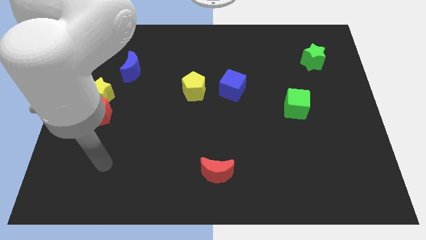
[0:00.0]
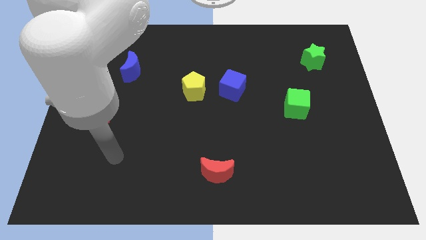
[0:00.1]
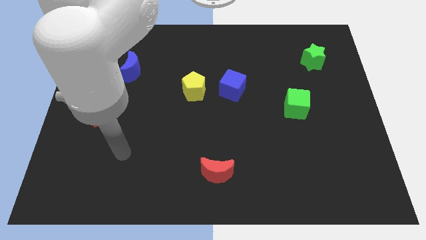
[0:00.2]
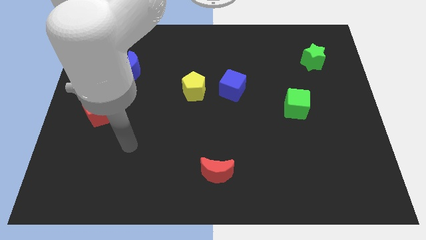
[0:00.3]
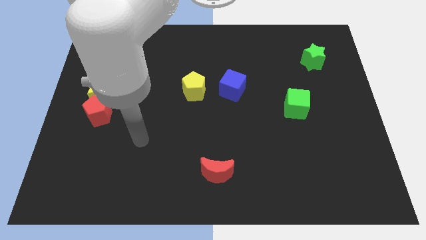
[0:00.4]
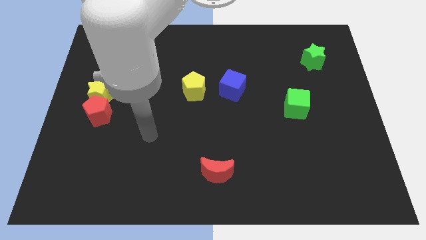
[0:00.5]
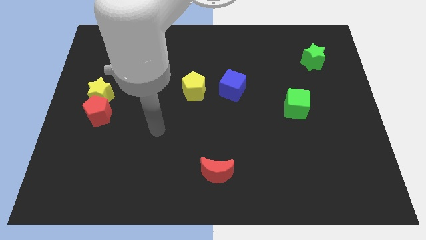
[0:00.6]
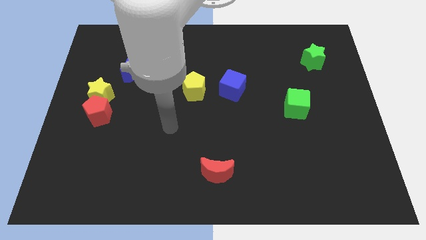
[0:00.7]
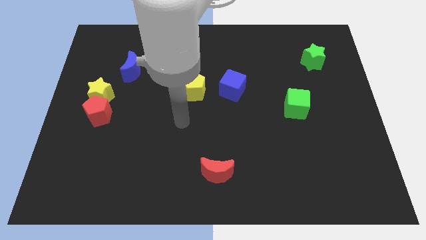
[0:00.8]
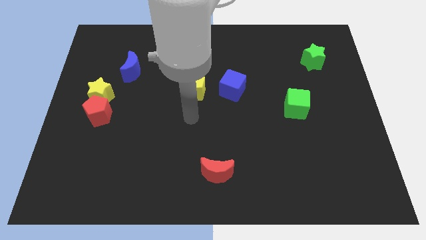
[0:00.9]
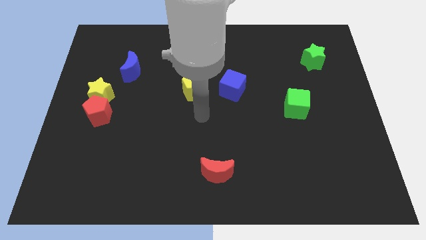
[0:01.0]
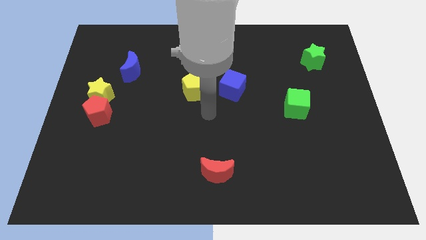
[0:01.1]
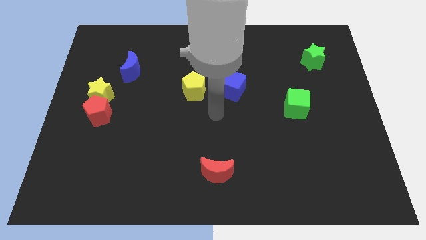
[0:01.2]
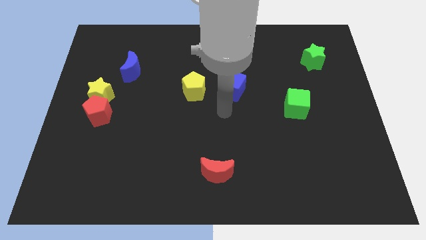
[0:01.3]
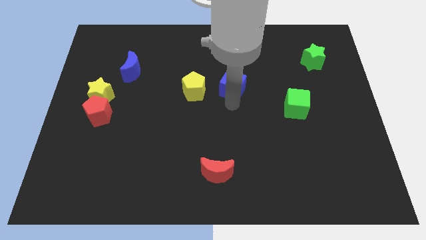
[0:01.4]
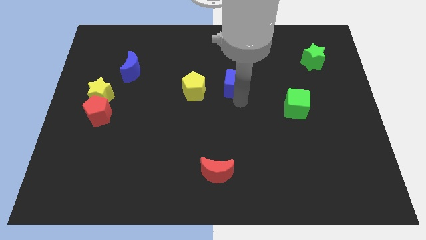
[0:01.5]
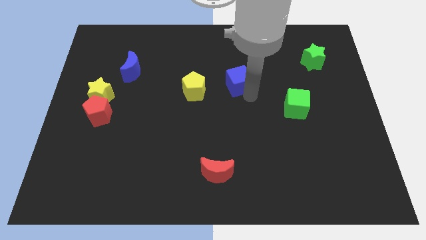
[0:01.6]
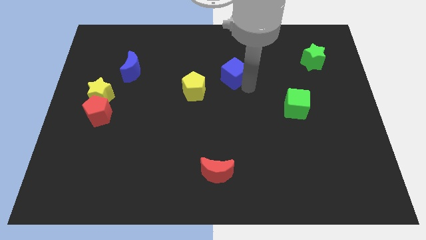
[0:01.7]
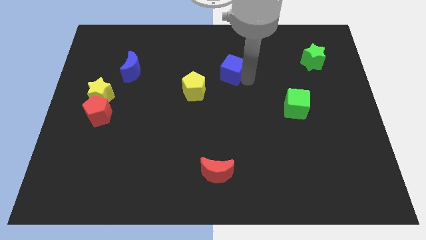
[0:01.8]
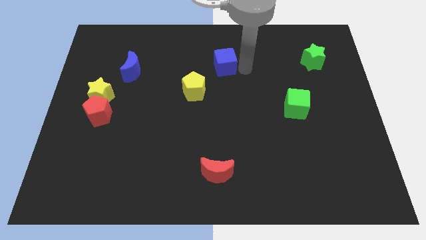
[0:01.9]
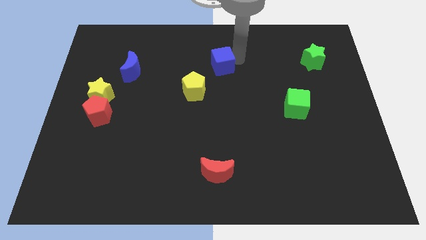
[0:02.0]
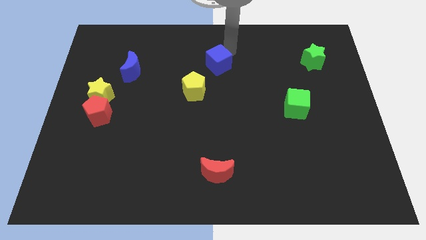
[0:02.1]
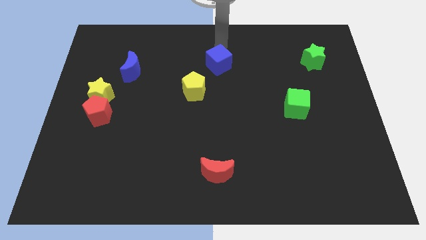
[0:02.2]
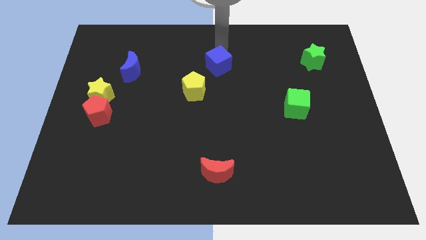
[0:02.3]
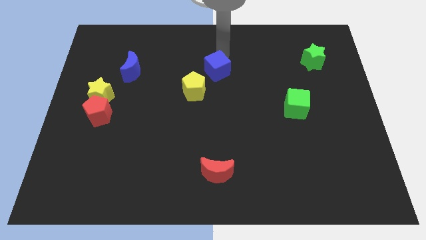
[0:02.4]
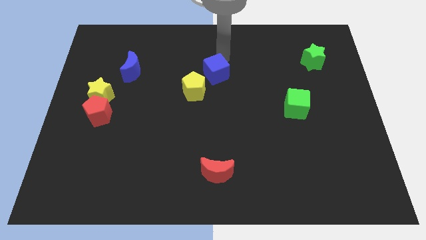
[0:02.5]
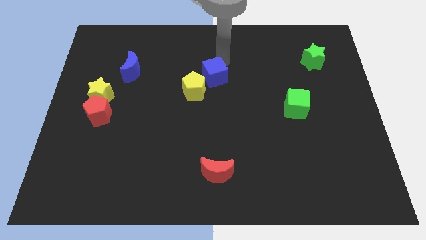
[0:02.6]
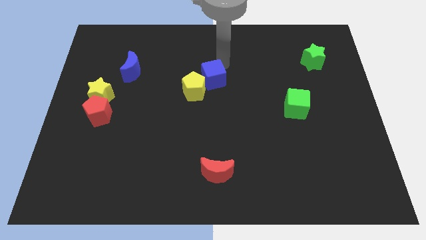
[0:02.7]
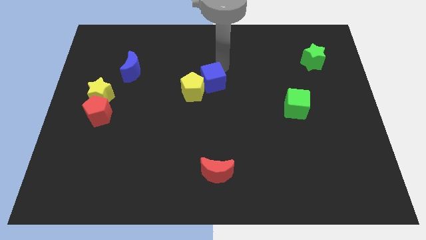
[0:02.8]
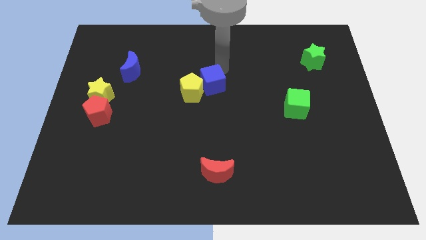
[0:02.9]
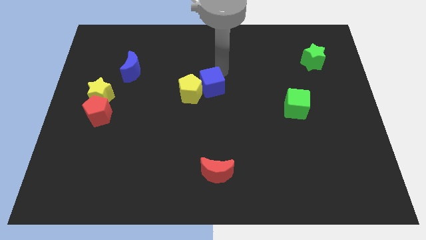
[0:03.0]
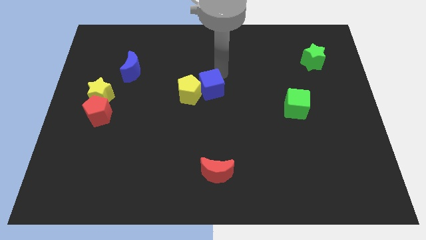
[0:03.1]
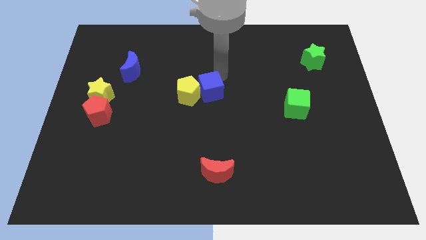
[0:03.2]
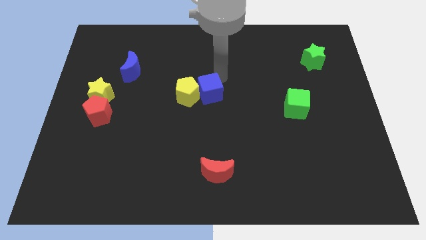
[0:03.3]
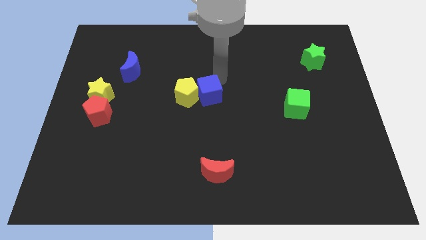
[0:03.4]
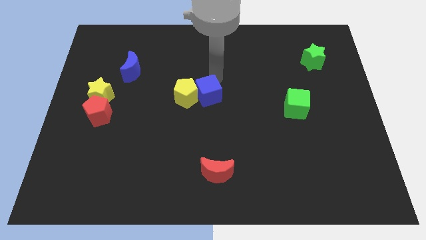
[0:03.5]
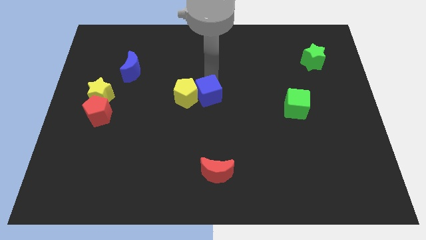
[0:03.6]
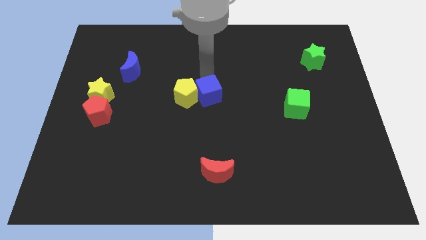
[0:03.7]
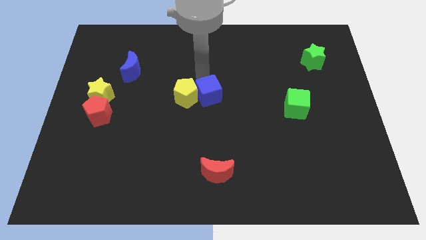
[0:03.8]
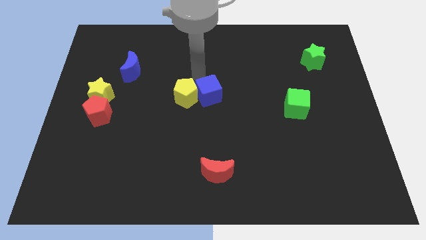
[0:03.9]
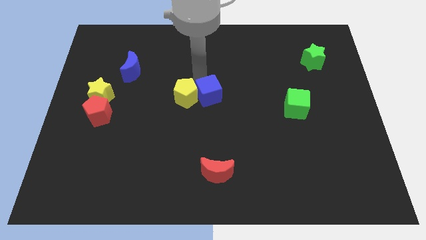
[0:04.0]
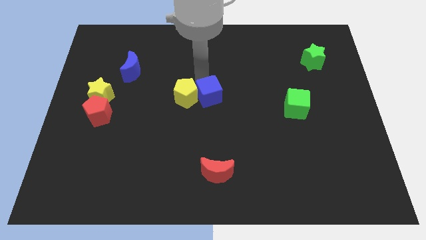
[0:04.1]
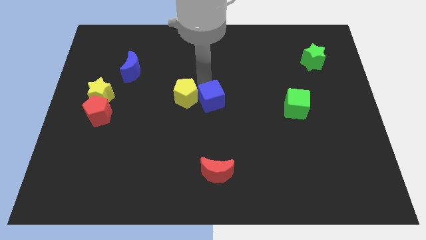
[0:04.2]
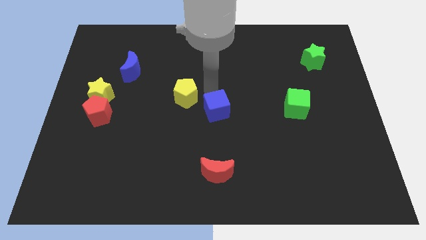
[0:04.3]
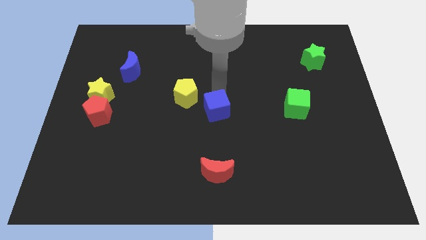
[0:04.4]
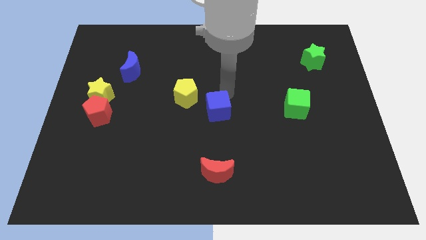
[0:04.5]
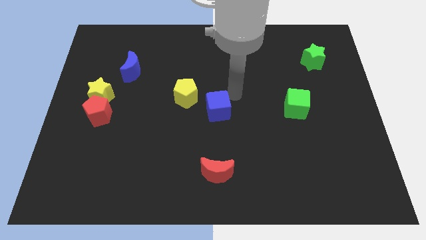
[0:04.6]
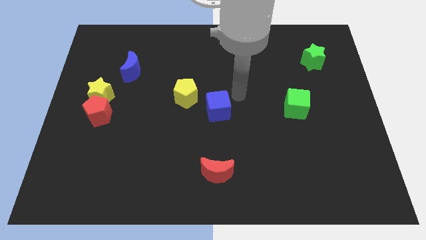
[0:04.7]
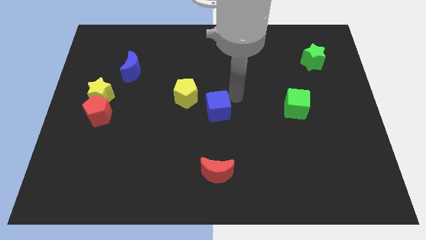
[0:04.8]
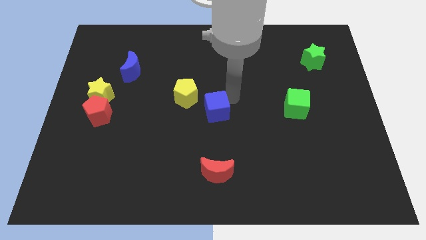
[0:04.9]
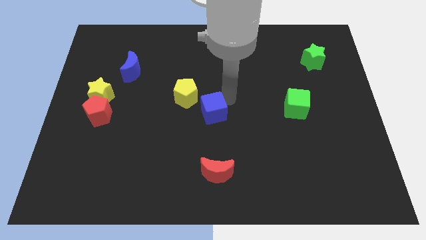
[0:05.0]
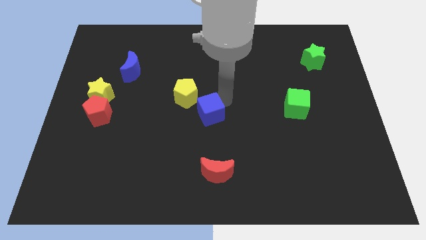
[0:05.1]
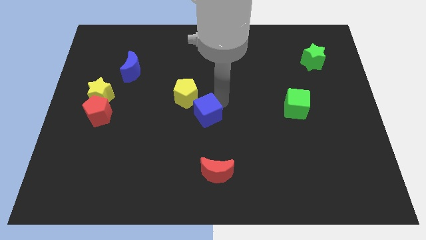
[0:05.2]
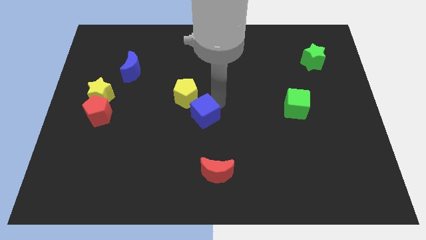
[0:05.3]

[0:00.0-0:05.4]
slide the blue cube below the yellow pentagon

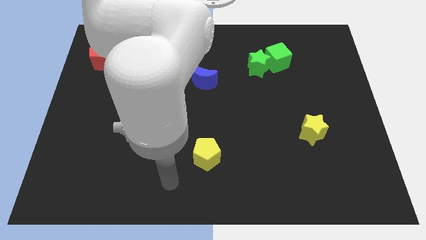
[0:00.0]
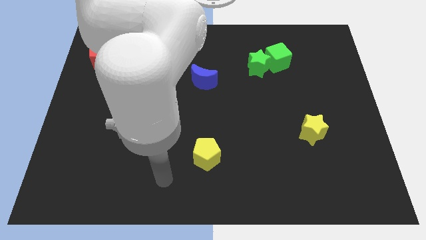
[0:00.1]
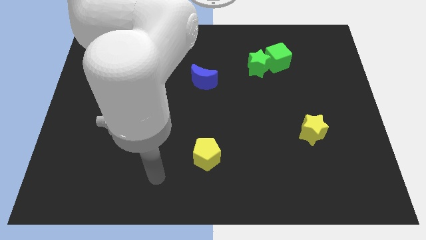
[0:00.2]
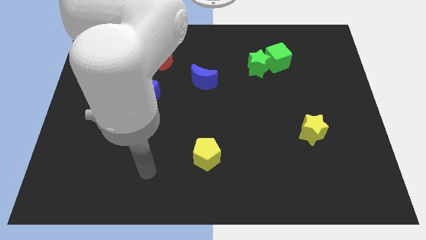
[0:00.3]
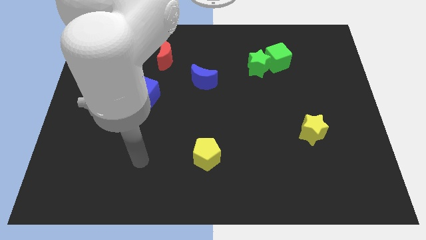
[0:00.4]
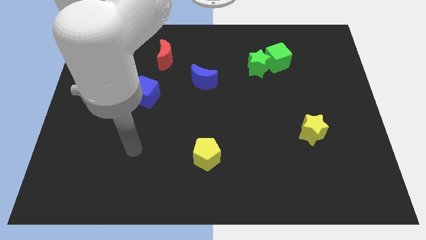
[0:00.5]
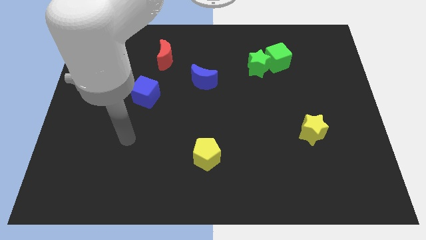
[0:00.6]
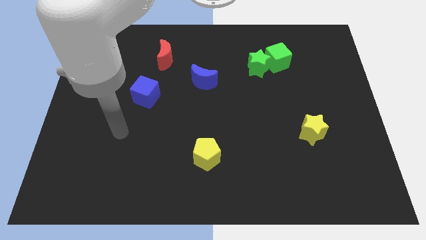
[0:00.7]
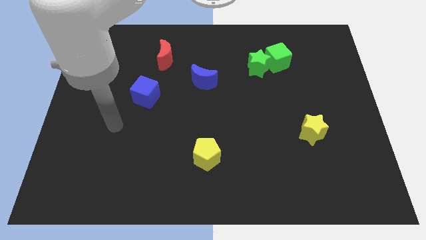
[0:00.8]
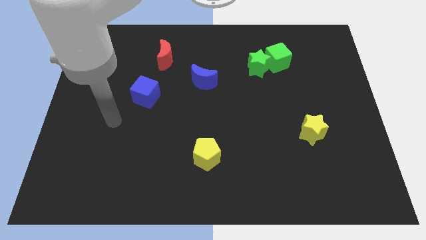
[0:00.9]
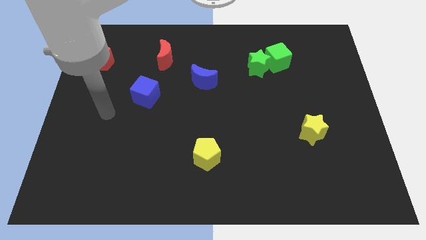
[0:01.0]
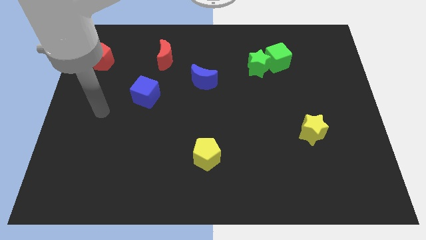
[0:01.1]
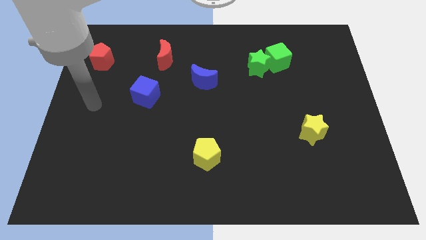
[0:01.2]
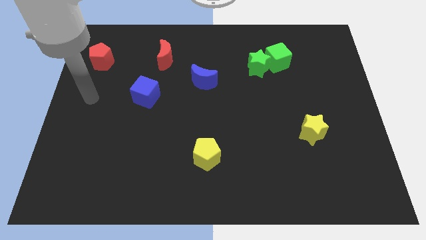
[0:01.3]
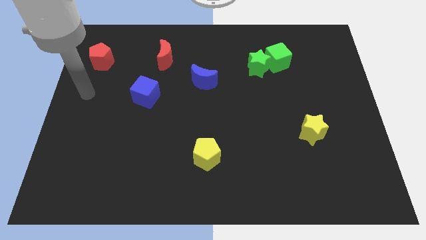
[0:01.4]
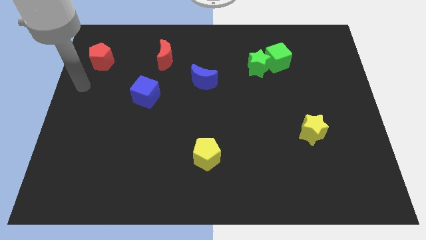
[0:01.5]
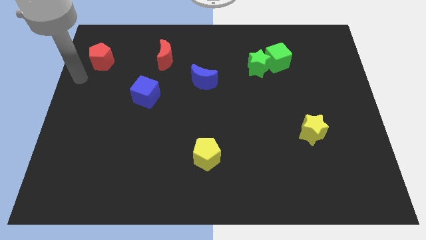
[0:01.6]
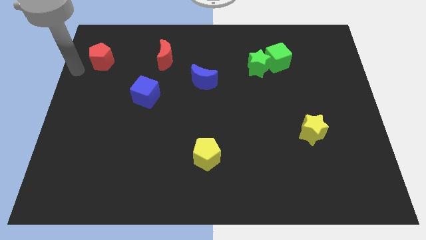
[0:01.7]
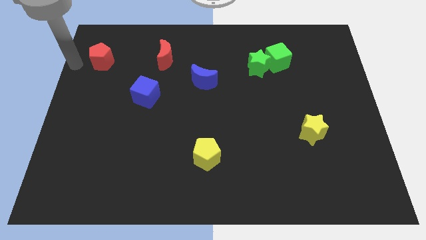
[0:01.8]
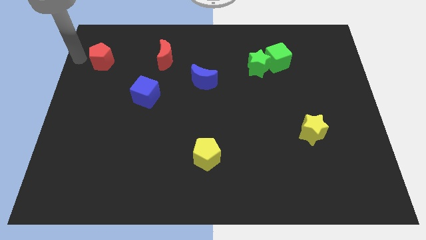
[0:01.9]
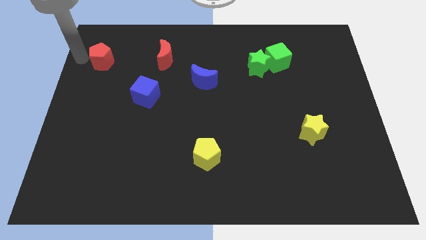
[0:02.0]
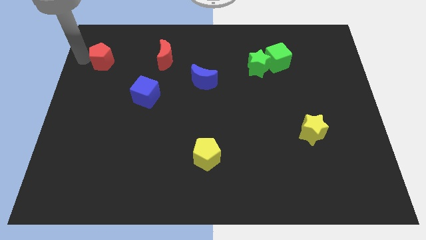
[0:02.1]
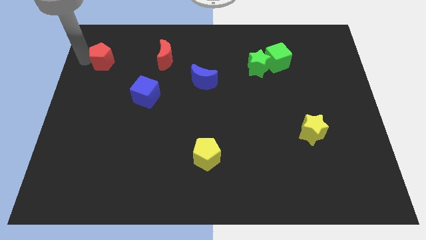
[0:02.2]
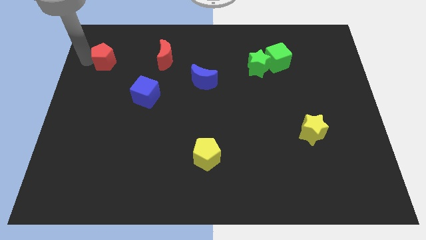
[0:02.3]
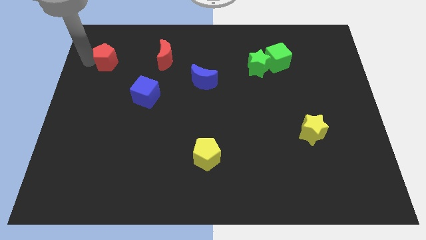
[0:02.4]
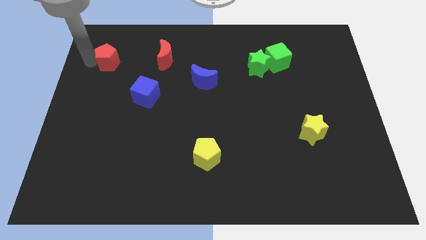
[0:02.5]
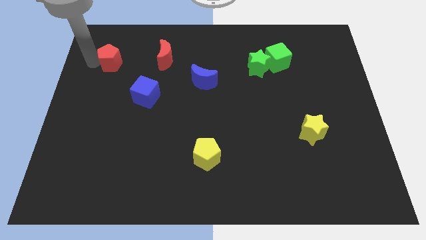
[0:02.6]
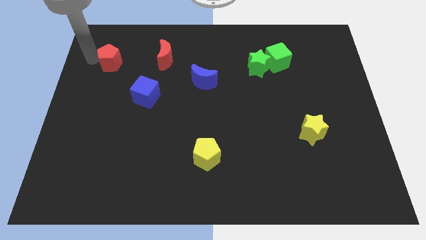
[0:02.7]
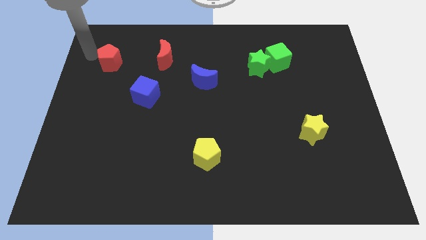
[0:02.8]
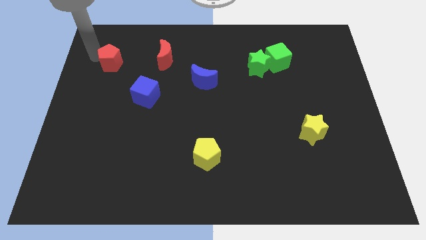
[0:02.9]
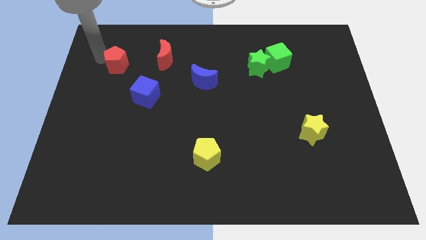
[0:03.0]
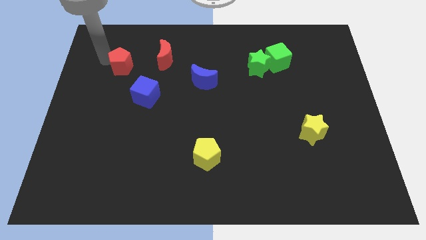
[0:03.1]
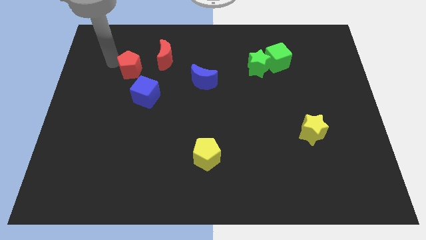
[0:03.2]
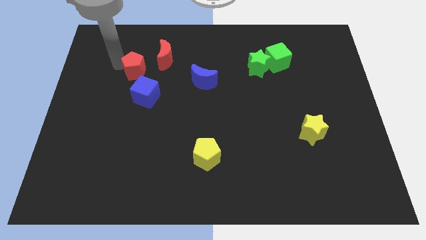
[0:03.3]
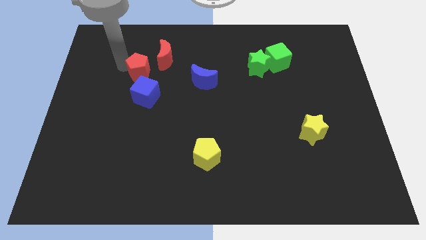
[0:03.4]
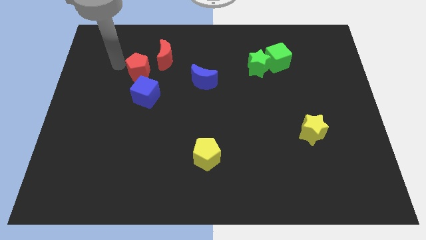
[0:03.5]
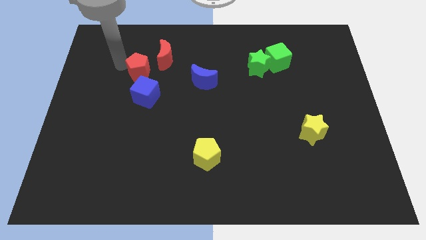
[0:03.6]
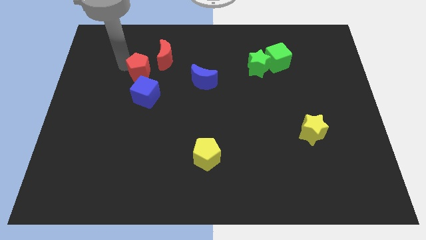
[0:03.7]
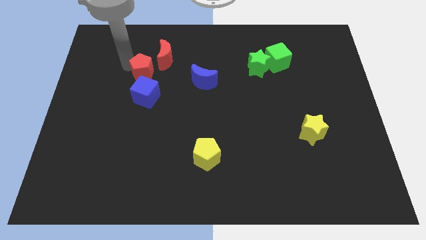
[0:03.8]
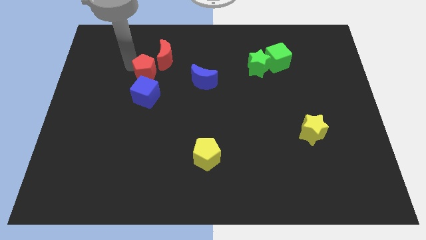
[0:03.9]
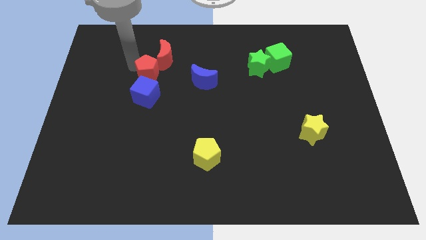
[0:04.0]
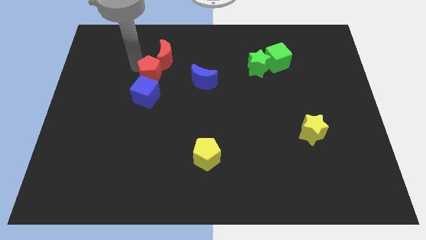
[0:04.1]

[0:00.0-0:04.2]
put the red pentagon to the top right of the blue cube
